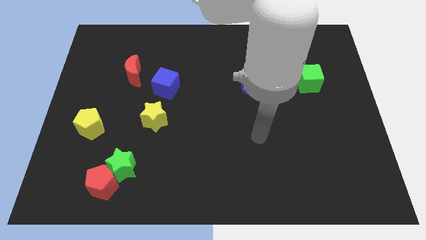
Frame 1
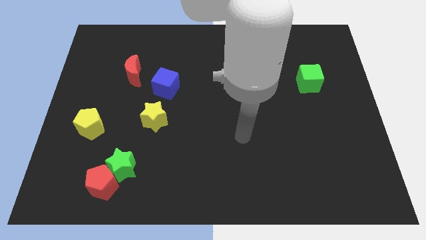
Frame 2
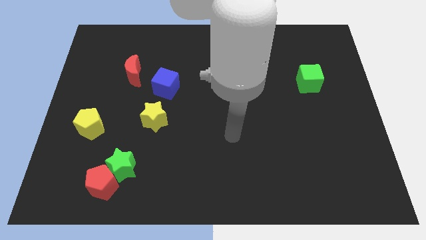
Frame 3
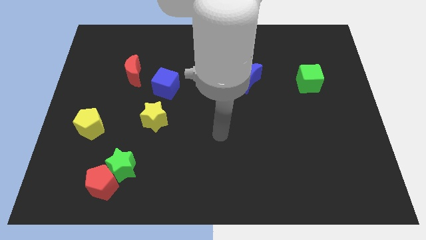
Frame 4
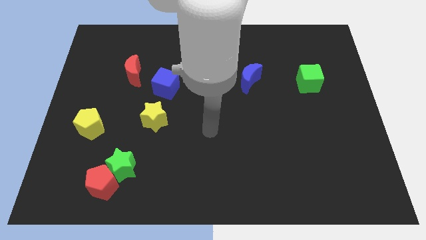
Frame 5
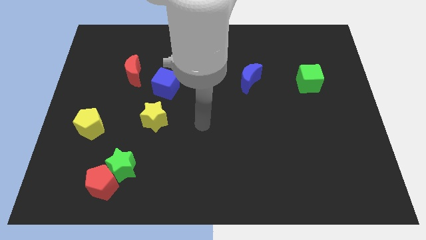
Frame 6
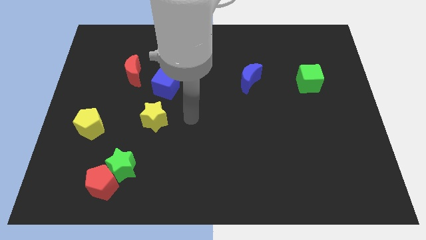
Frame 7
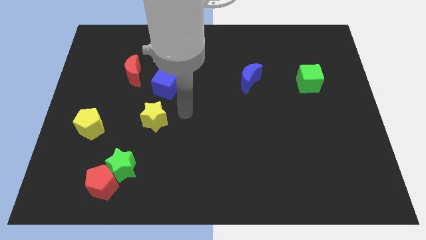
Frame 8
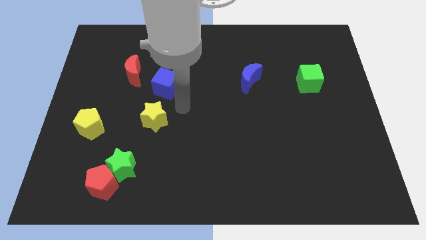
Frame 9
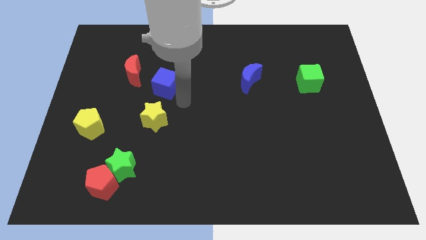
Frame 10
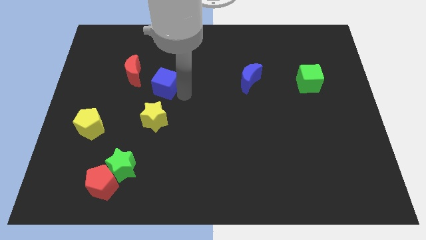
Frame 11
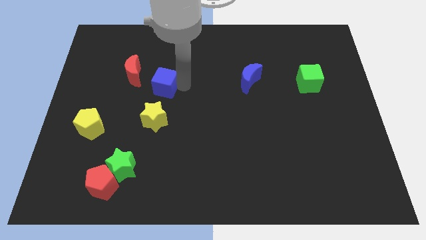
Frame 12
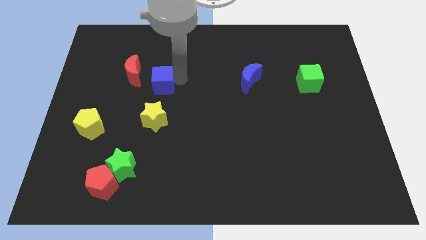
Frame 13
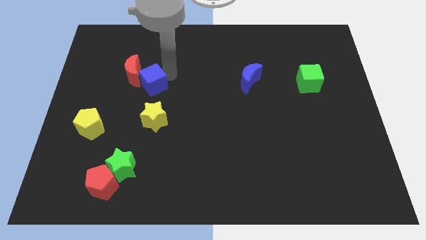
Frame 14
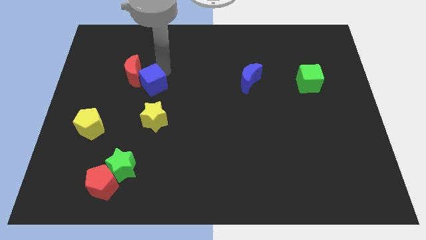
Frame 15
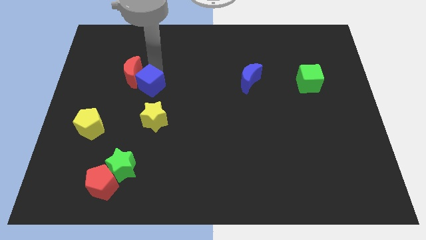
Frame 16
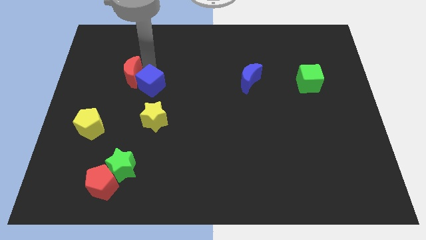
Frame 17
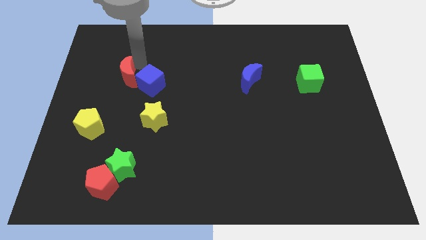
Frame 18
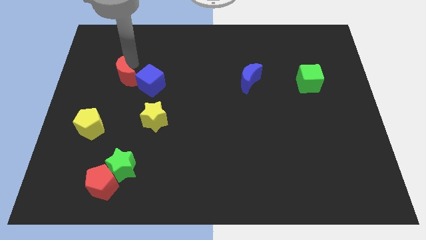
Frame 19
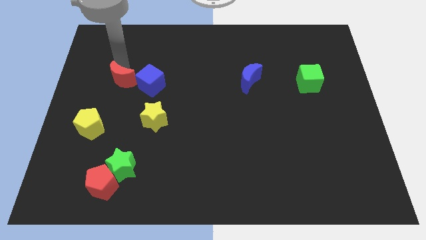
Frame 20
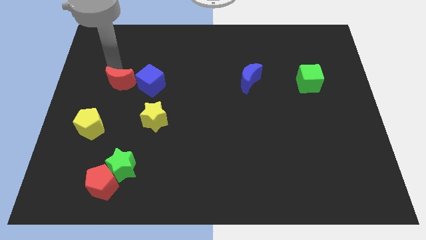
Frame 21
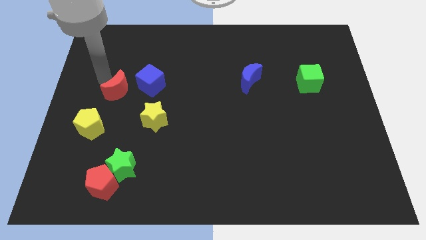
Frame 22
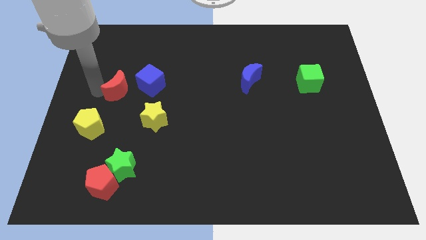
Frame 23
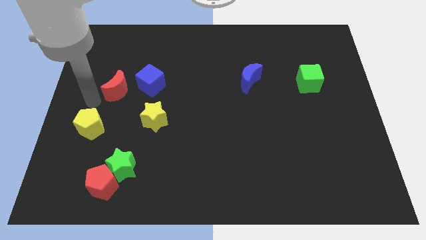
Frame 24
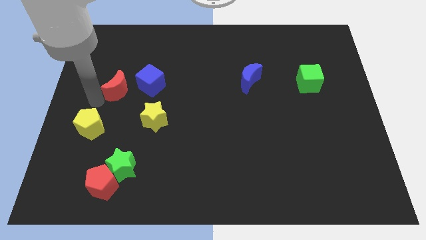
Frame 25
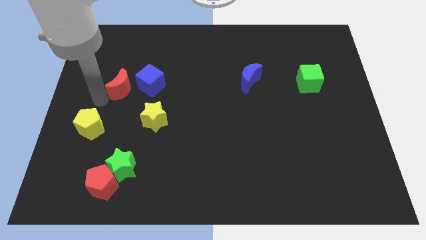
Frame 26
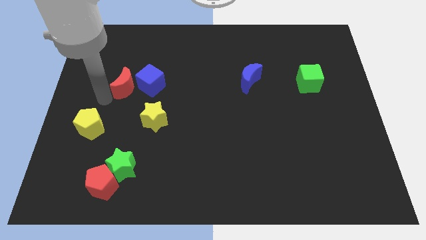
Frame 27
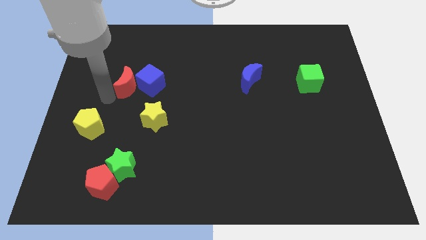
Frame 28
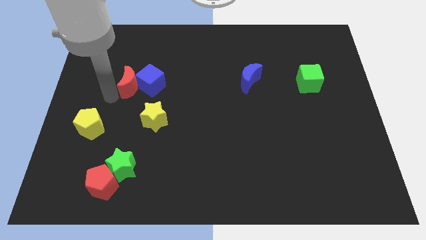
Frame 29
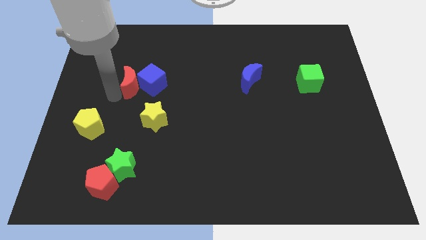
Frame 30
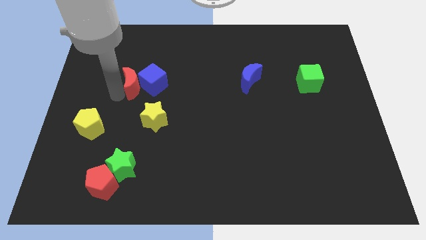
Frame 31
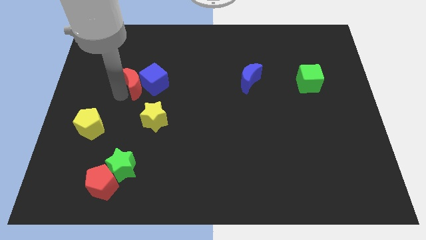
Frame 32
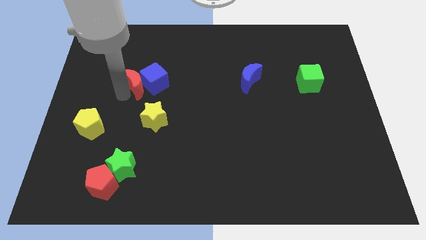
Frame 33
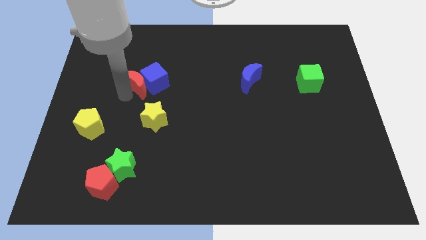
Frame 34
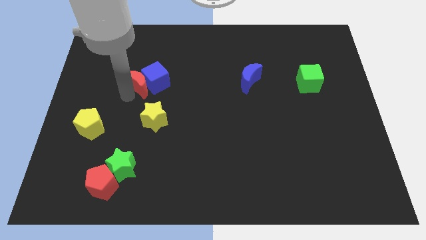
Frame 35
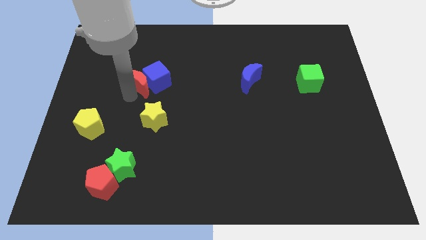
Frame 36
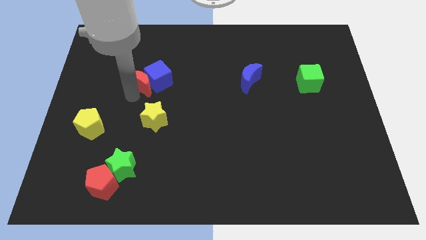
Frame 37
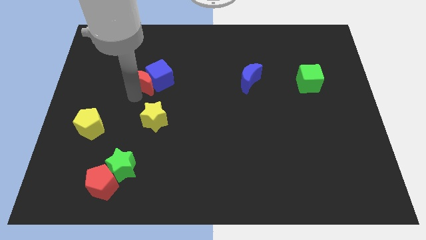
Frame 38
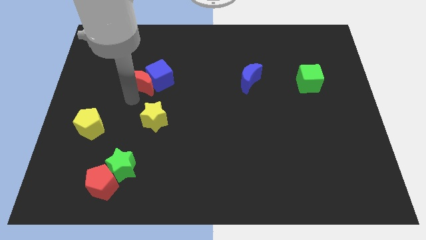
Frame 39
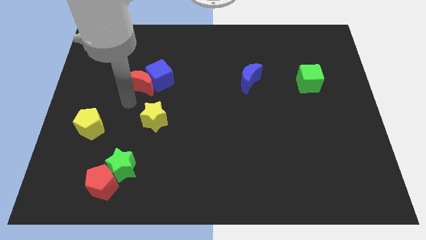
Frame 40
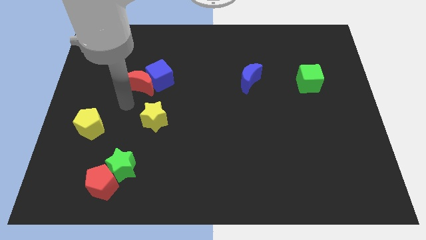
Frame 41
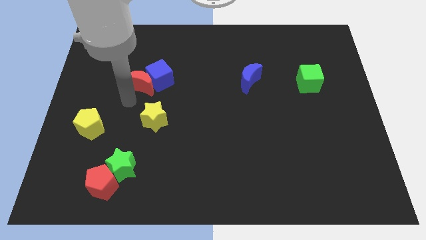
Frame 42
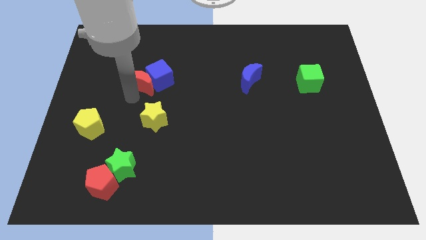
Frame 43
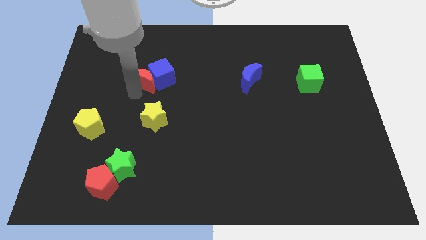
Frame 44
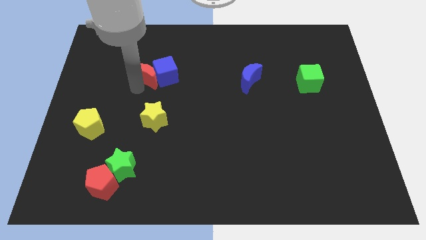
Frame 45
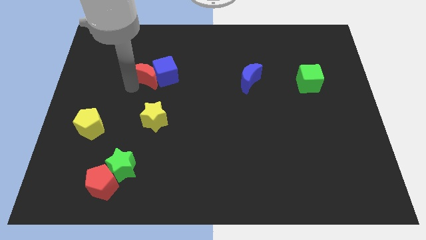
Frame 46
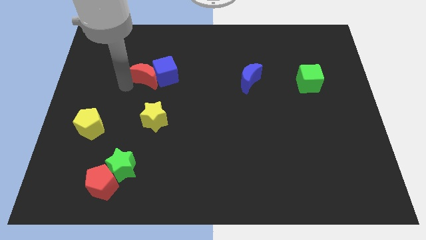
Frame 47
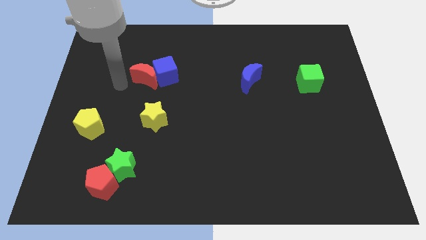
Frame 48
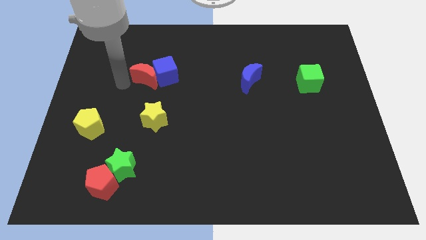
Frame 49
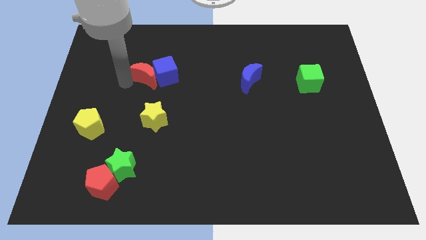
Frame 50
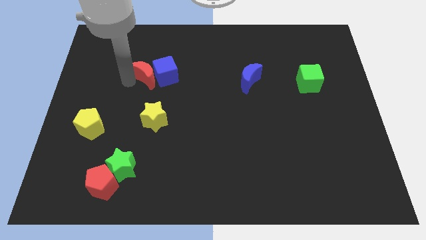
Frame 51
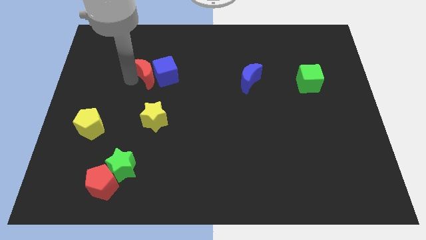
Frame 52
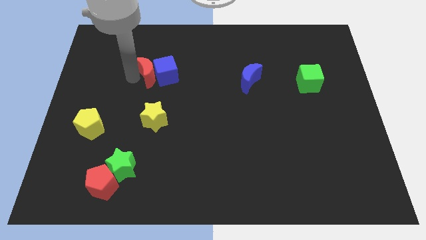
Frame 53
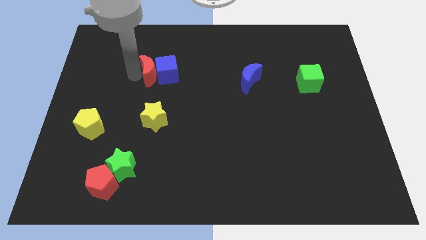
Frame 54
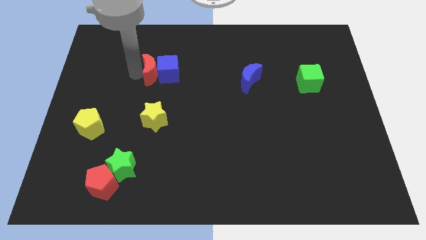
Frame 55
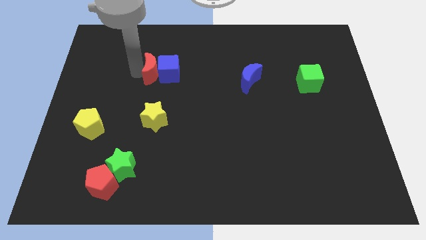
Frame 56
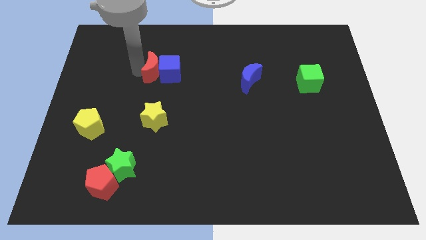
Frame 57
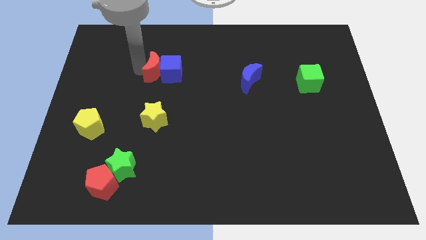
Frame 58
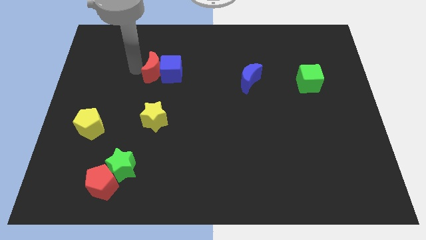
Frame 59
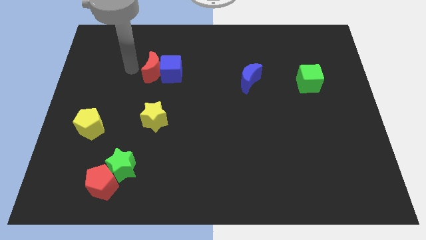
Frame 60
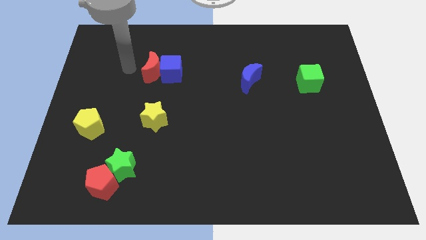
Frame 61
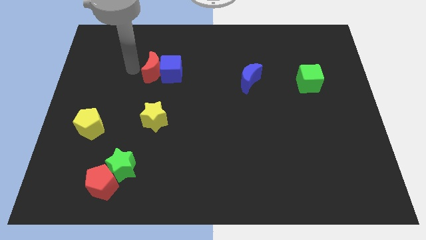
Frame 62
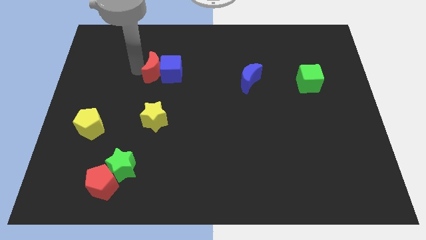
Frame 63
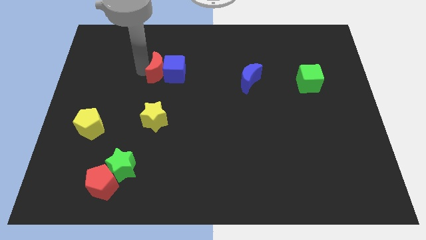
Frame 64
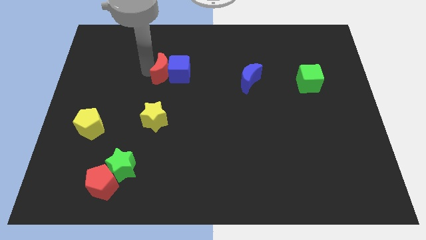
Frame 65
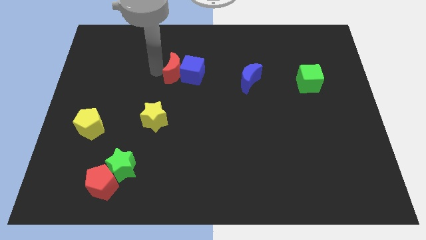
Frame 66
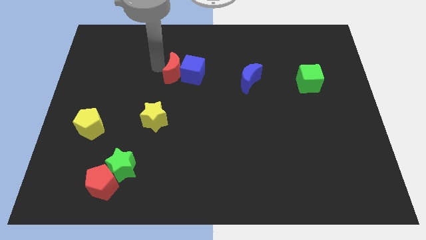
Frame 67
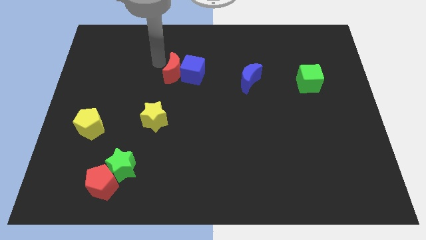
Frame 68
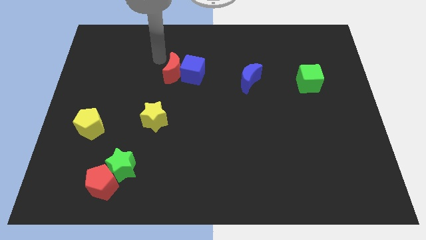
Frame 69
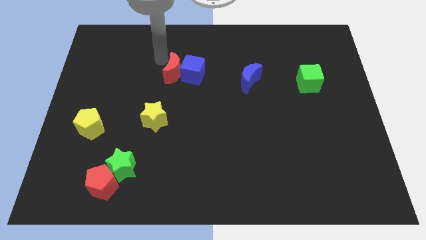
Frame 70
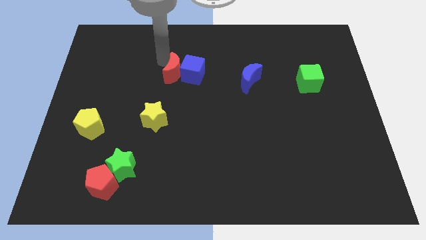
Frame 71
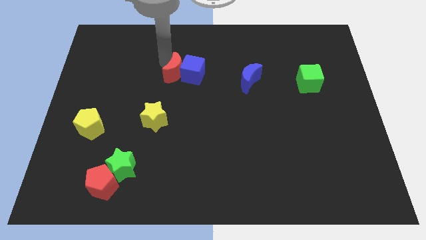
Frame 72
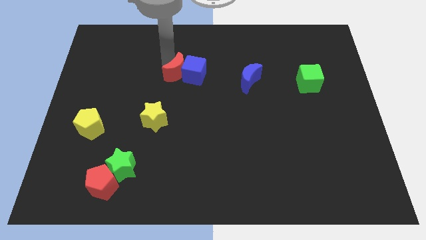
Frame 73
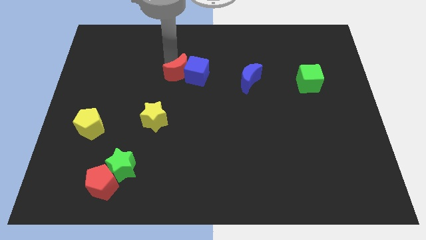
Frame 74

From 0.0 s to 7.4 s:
move the red moon to the middle
